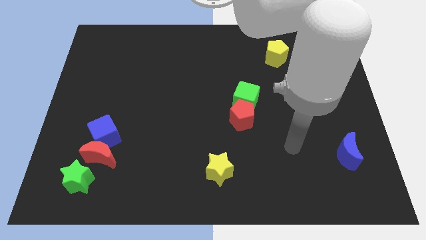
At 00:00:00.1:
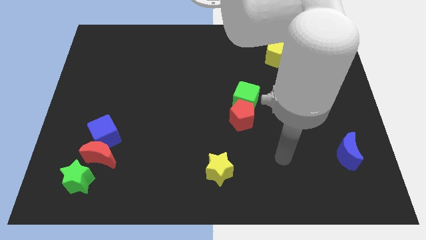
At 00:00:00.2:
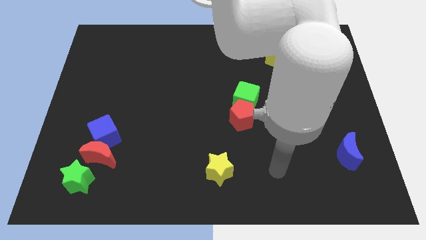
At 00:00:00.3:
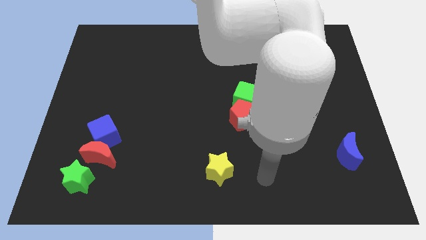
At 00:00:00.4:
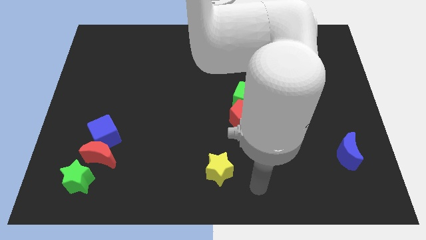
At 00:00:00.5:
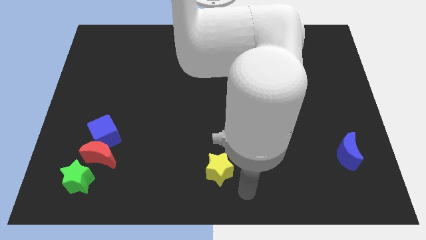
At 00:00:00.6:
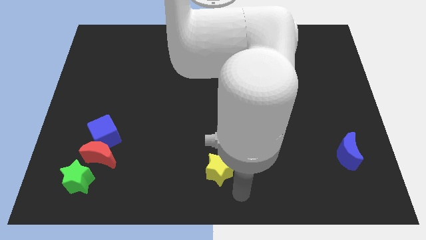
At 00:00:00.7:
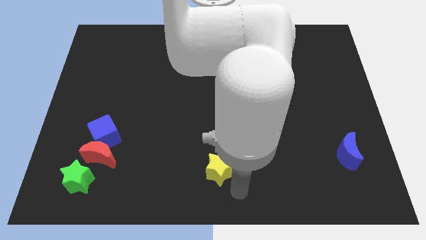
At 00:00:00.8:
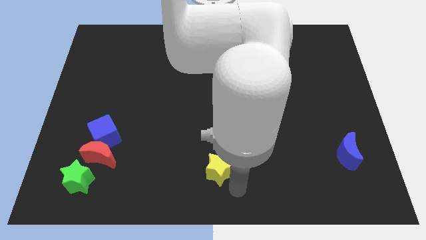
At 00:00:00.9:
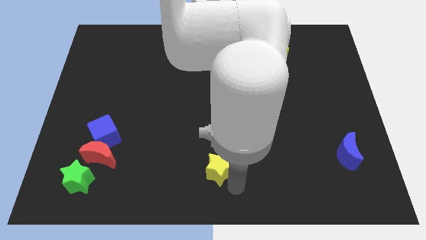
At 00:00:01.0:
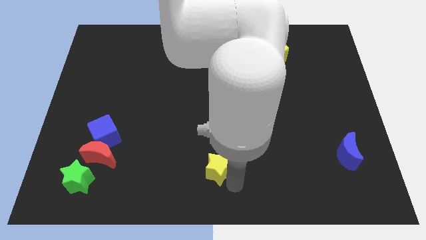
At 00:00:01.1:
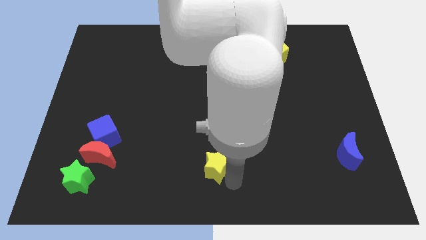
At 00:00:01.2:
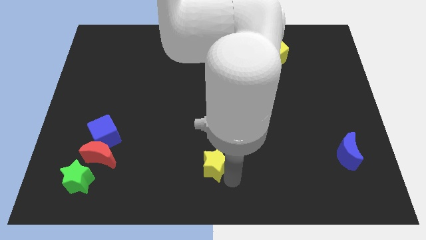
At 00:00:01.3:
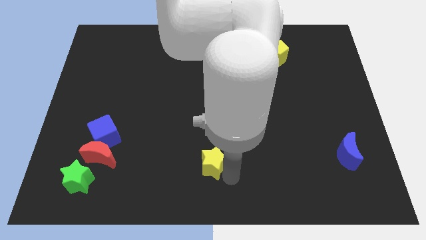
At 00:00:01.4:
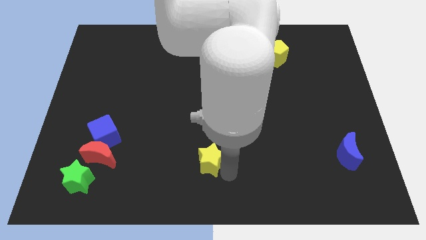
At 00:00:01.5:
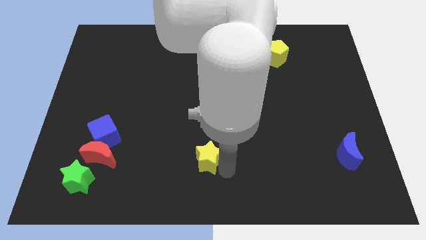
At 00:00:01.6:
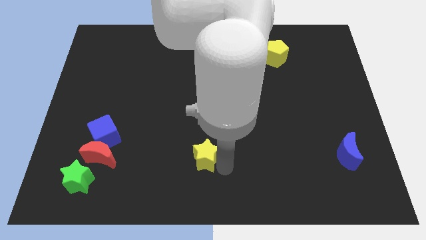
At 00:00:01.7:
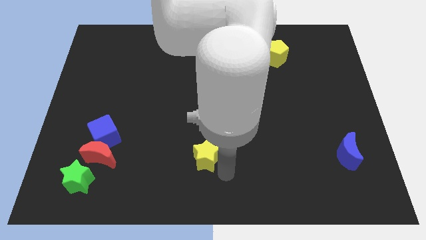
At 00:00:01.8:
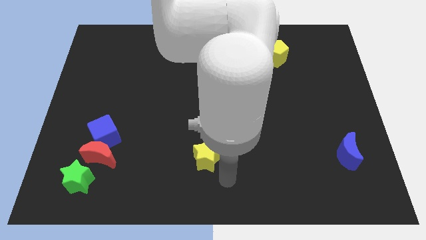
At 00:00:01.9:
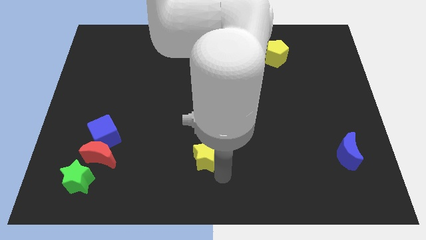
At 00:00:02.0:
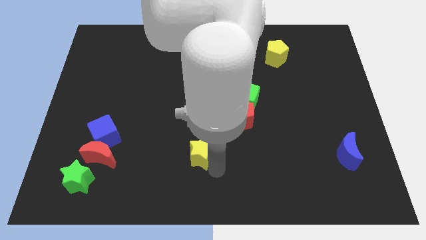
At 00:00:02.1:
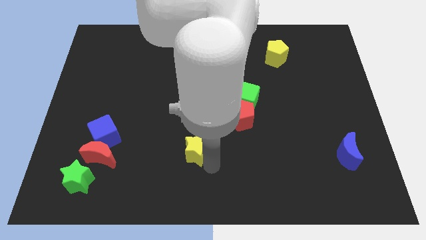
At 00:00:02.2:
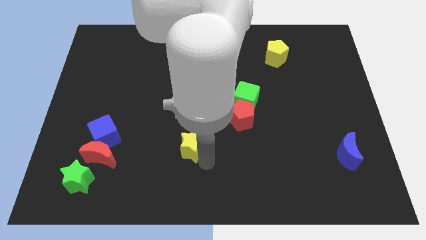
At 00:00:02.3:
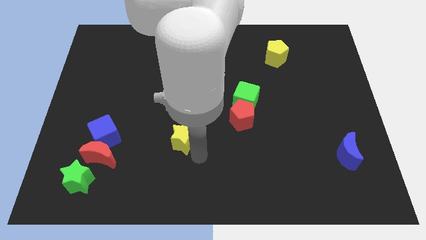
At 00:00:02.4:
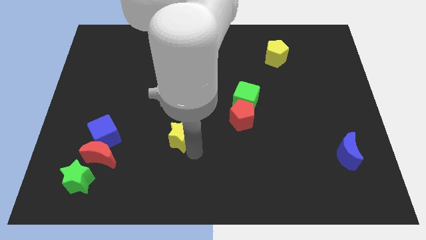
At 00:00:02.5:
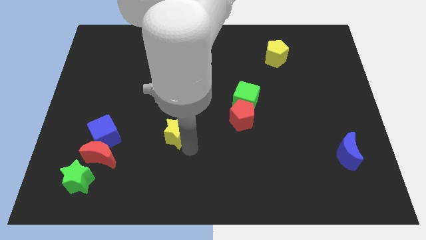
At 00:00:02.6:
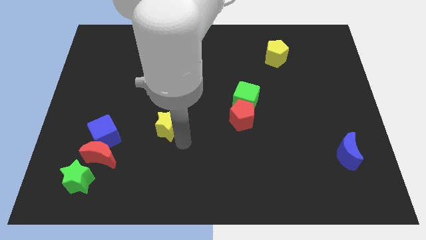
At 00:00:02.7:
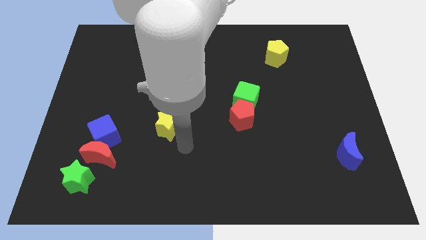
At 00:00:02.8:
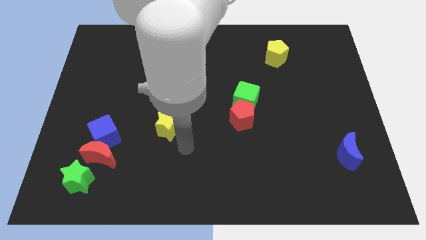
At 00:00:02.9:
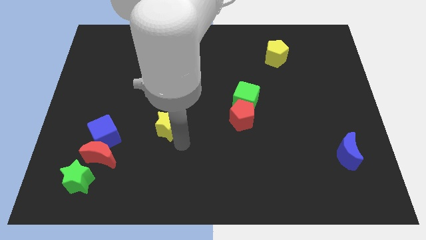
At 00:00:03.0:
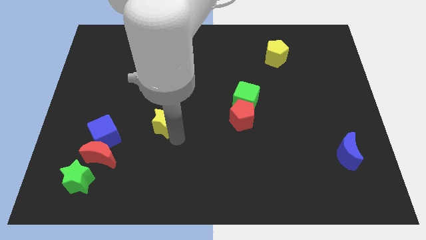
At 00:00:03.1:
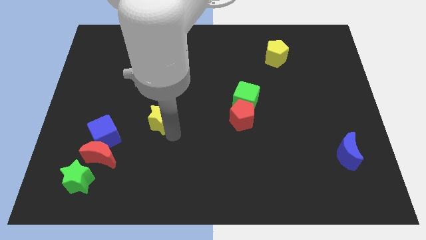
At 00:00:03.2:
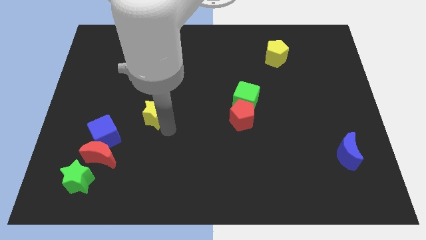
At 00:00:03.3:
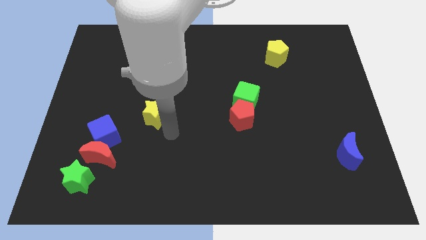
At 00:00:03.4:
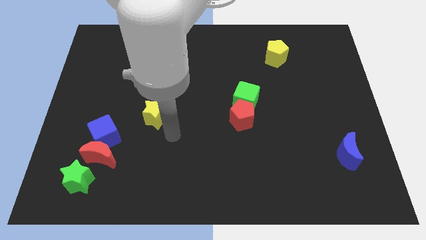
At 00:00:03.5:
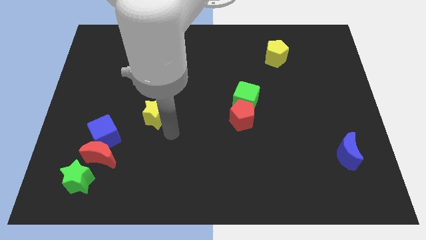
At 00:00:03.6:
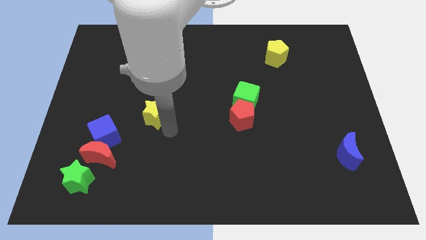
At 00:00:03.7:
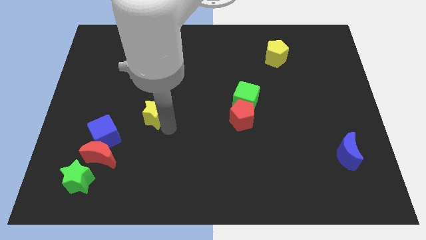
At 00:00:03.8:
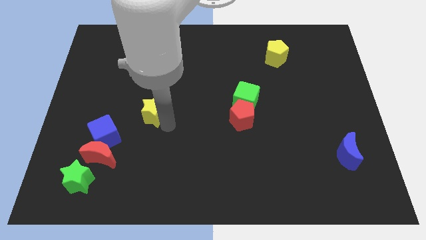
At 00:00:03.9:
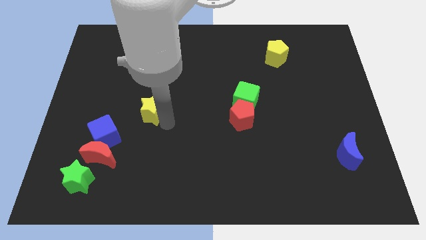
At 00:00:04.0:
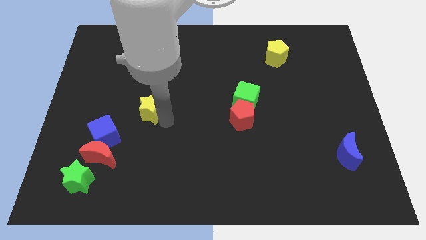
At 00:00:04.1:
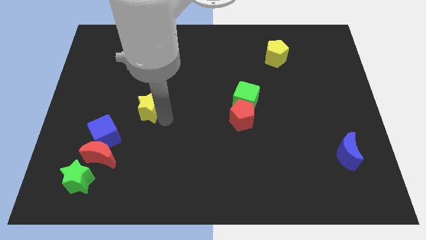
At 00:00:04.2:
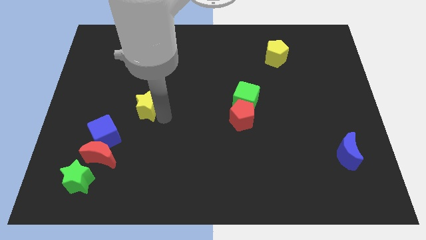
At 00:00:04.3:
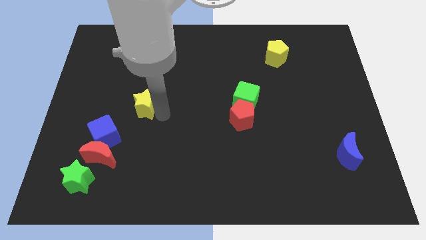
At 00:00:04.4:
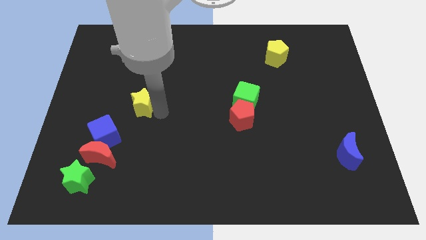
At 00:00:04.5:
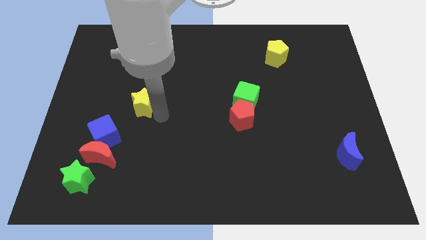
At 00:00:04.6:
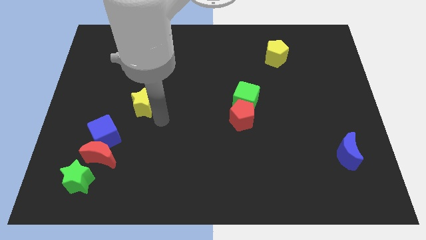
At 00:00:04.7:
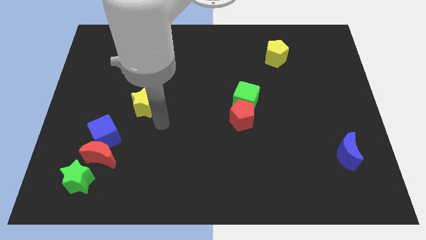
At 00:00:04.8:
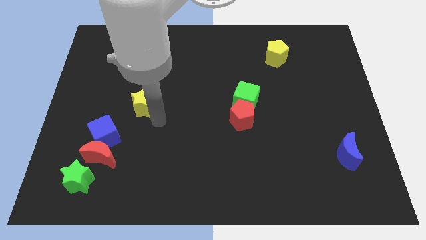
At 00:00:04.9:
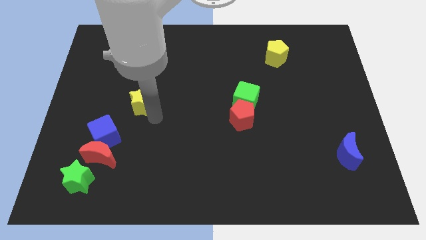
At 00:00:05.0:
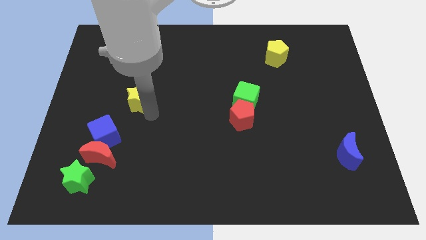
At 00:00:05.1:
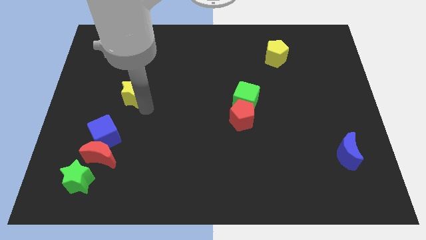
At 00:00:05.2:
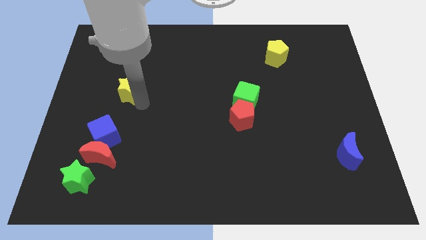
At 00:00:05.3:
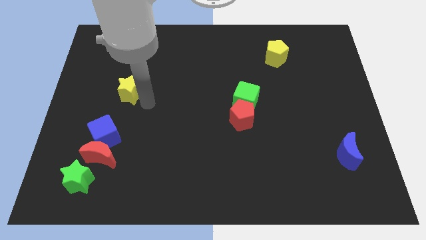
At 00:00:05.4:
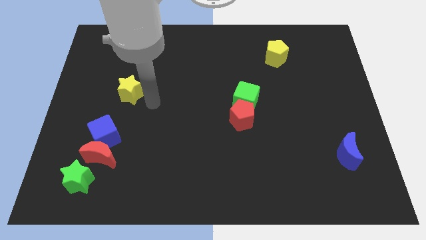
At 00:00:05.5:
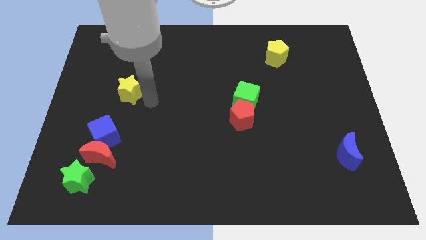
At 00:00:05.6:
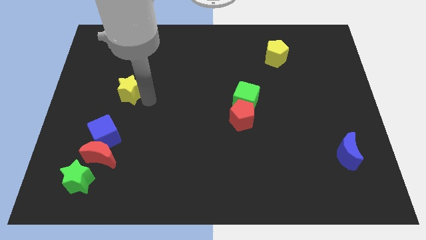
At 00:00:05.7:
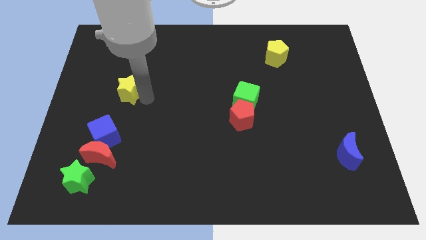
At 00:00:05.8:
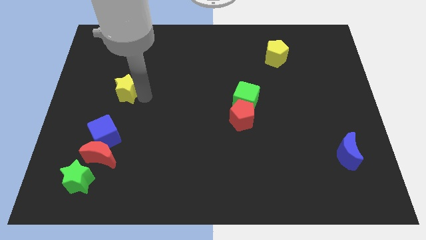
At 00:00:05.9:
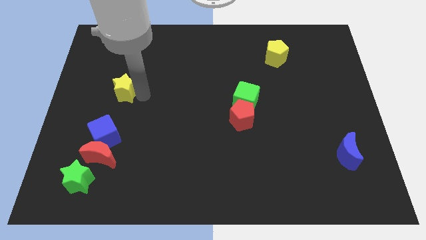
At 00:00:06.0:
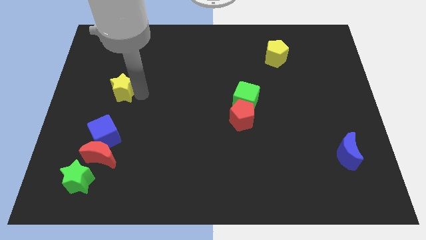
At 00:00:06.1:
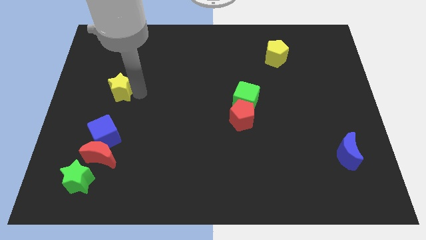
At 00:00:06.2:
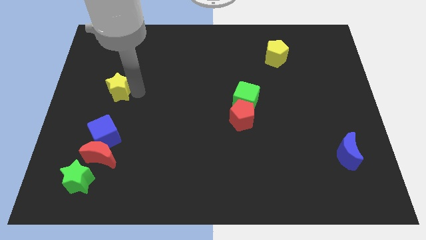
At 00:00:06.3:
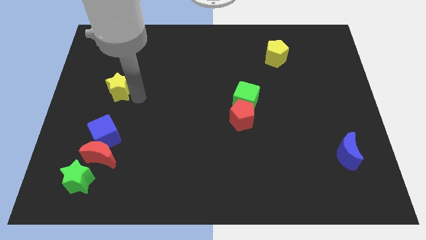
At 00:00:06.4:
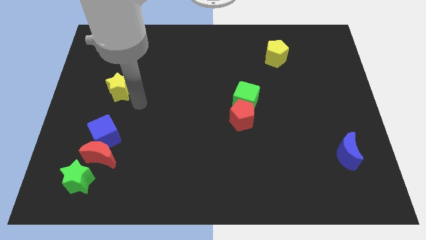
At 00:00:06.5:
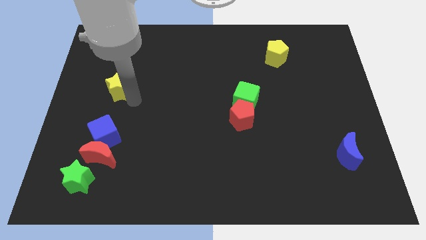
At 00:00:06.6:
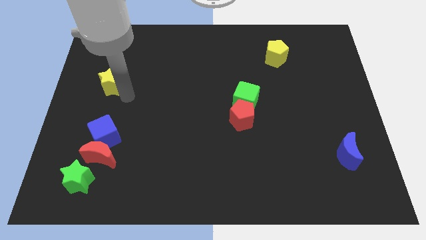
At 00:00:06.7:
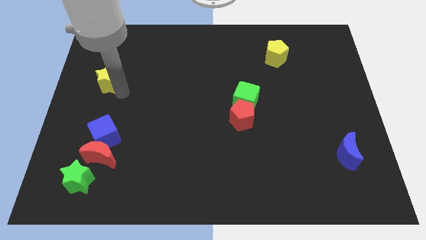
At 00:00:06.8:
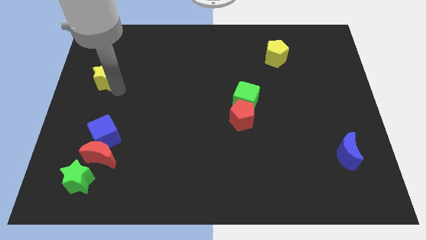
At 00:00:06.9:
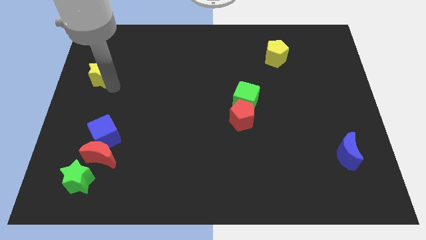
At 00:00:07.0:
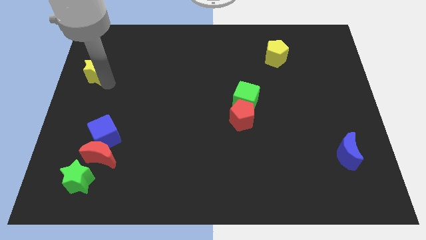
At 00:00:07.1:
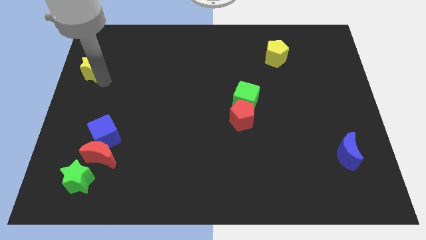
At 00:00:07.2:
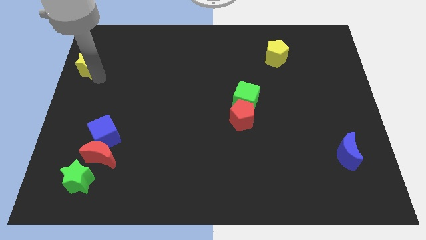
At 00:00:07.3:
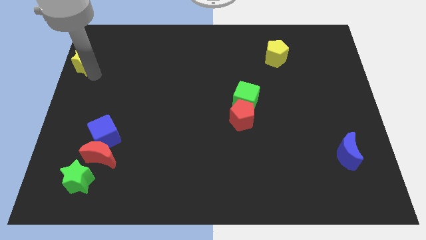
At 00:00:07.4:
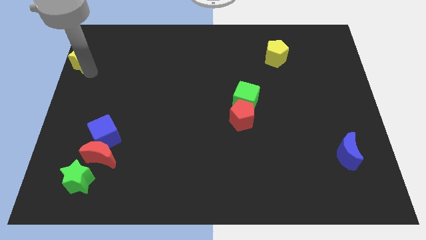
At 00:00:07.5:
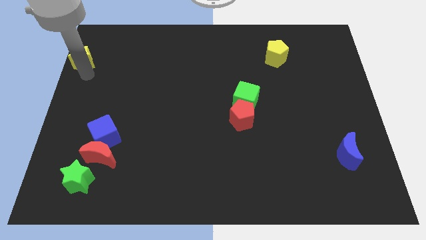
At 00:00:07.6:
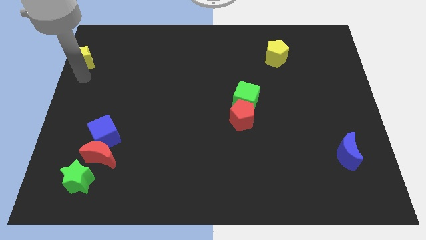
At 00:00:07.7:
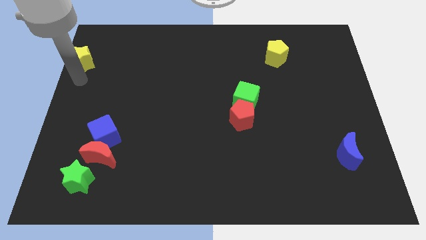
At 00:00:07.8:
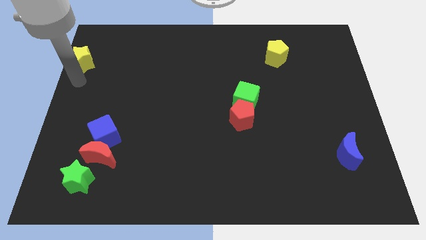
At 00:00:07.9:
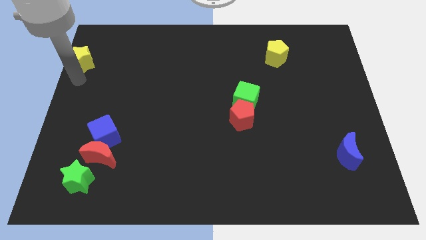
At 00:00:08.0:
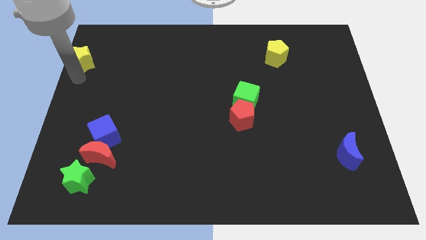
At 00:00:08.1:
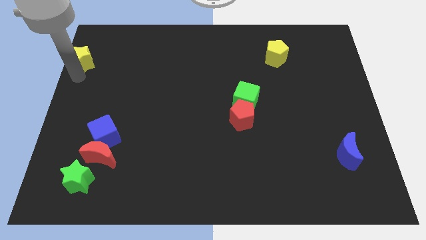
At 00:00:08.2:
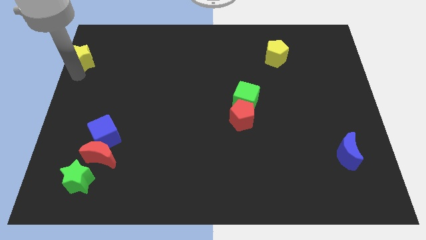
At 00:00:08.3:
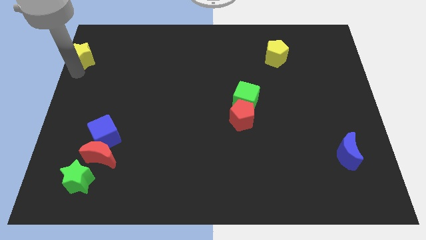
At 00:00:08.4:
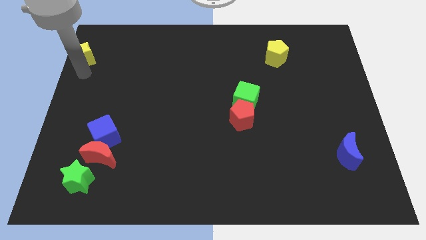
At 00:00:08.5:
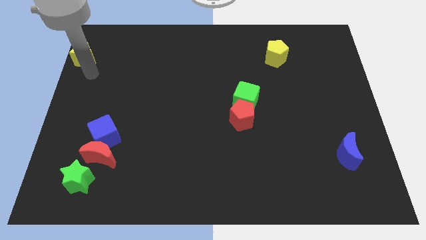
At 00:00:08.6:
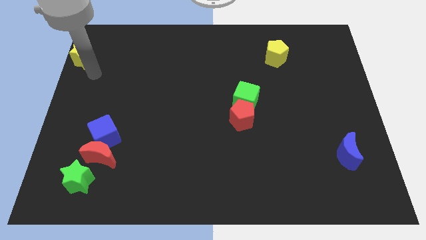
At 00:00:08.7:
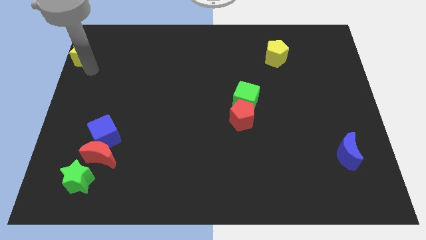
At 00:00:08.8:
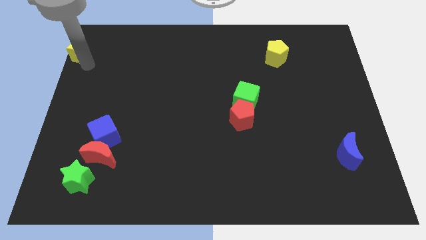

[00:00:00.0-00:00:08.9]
put the yellow star to the top left
